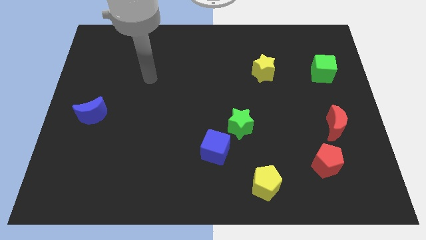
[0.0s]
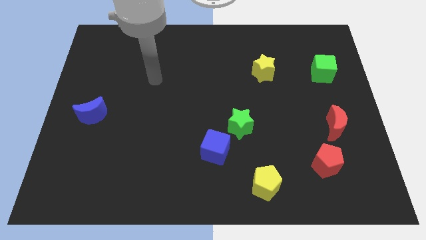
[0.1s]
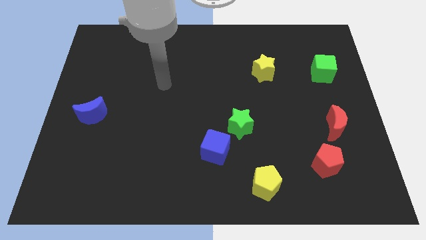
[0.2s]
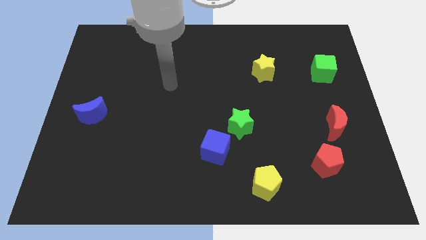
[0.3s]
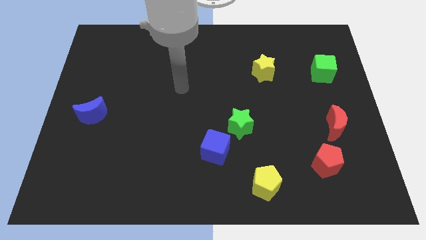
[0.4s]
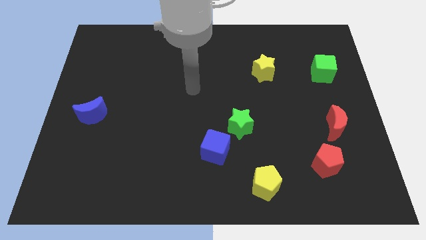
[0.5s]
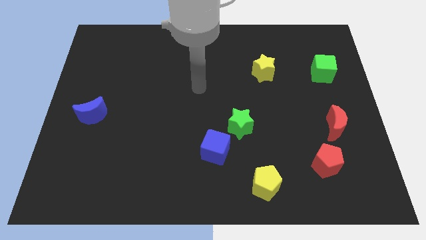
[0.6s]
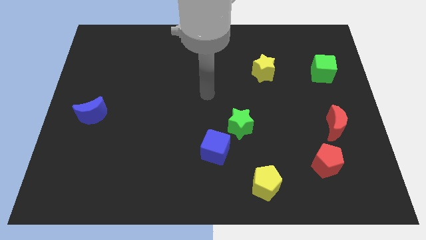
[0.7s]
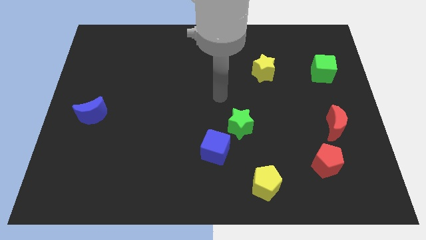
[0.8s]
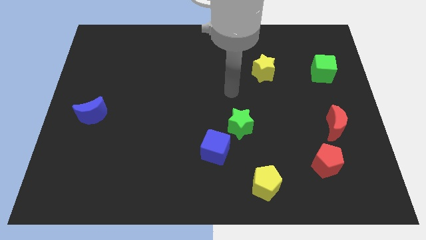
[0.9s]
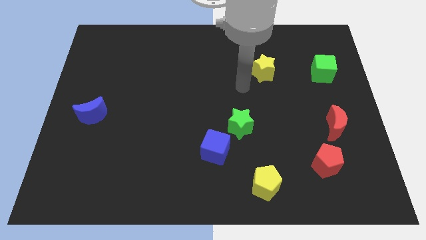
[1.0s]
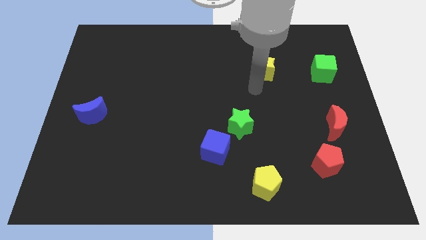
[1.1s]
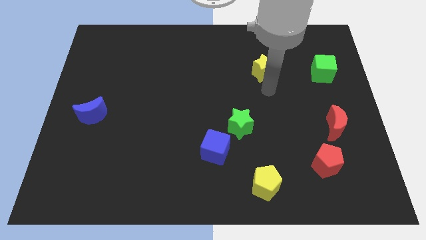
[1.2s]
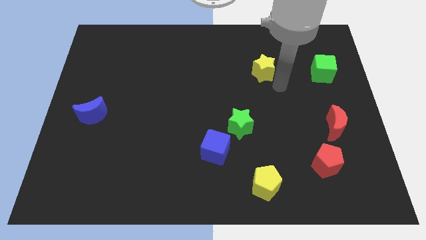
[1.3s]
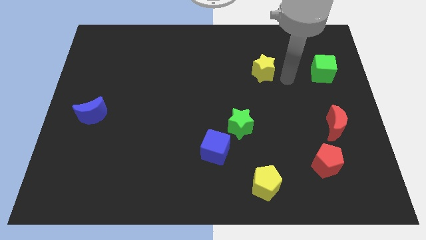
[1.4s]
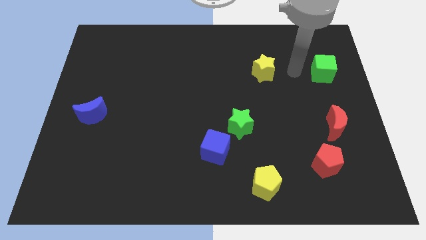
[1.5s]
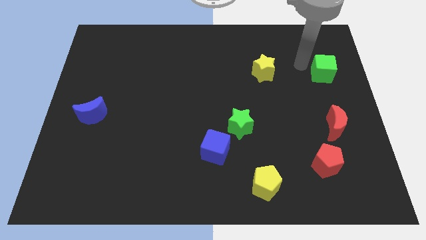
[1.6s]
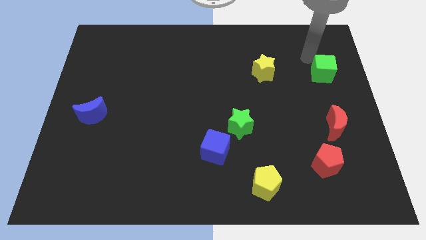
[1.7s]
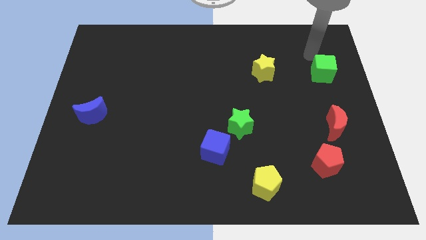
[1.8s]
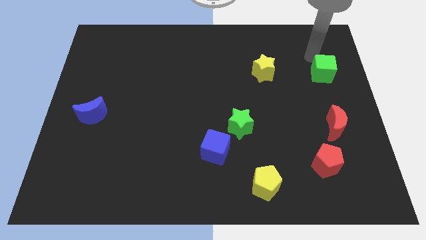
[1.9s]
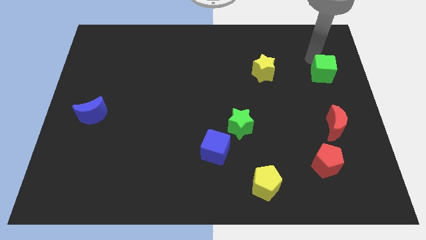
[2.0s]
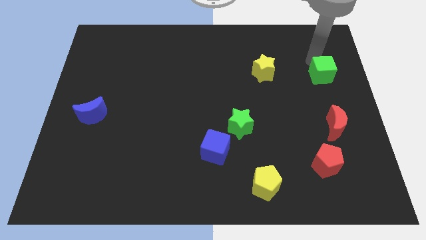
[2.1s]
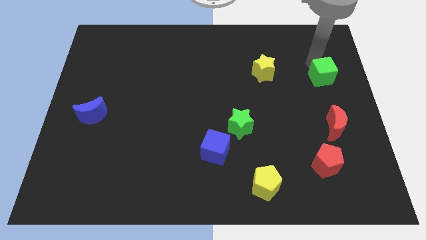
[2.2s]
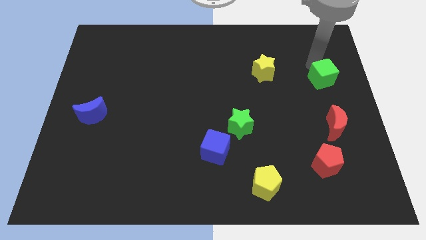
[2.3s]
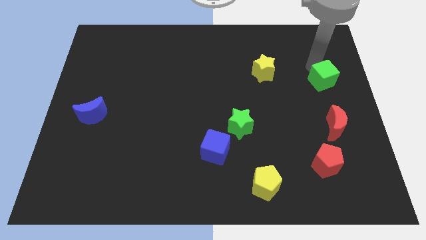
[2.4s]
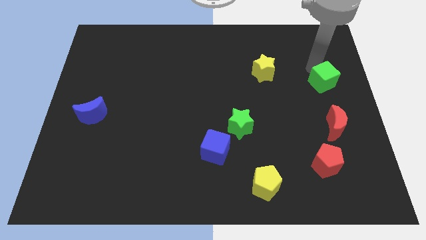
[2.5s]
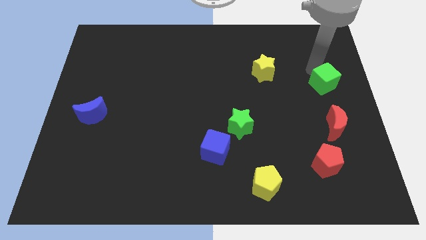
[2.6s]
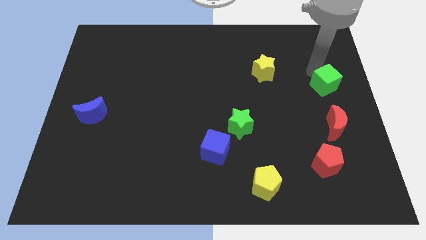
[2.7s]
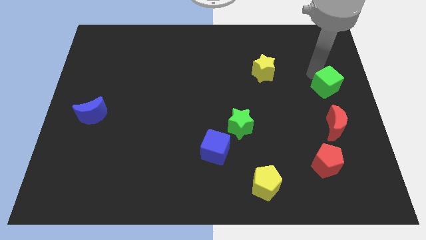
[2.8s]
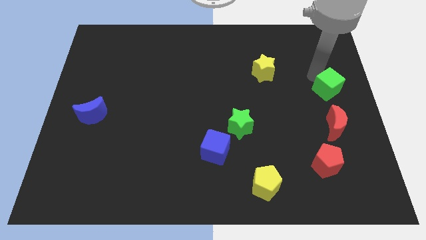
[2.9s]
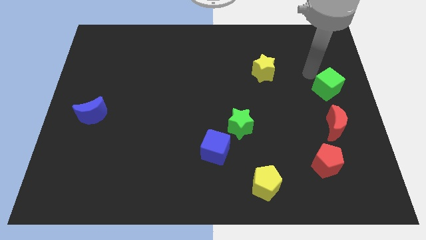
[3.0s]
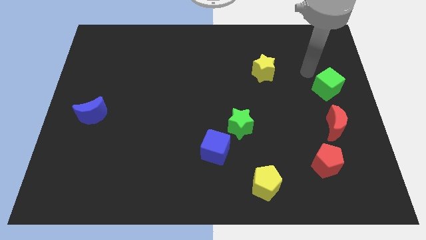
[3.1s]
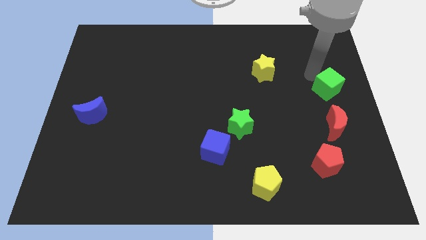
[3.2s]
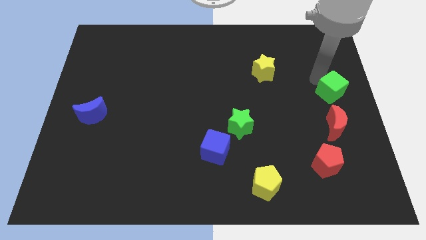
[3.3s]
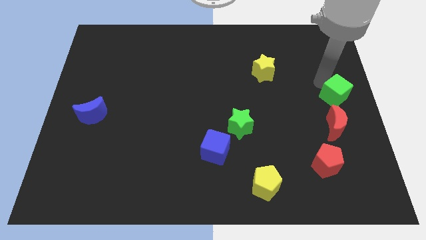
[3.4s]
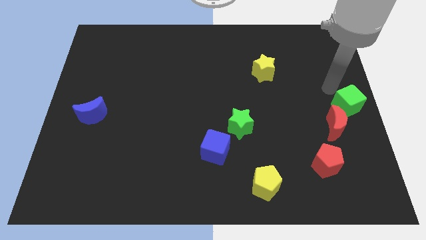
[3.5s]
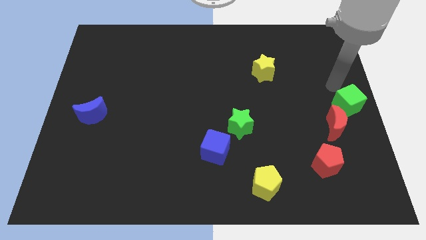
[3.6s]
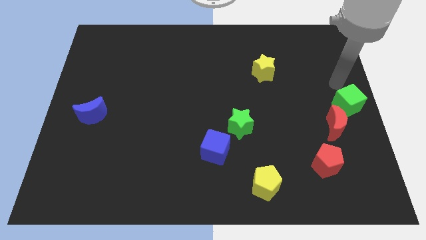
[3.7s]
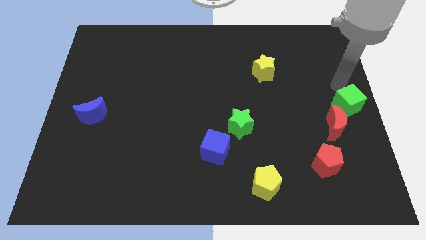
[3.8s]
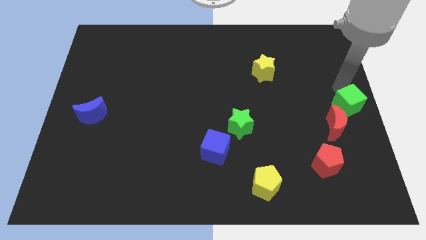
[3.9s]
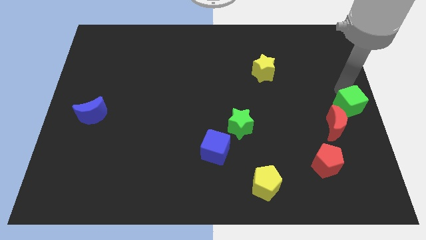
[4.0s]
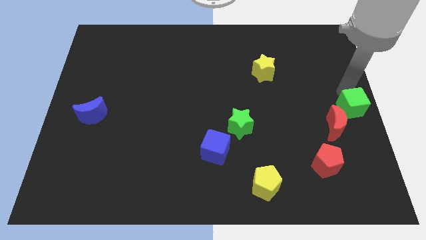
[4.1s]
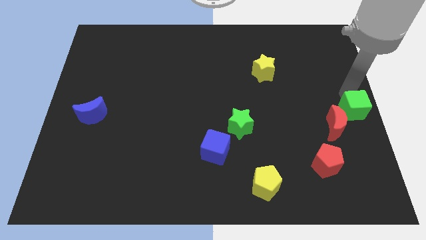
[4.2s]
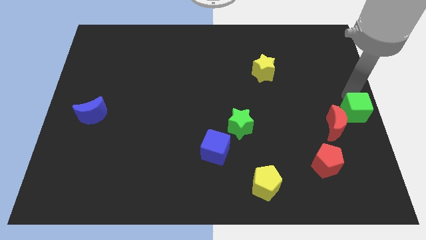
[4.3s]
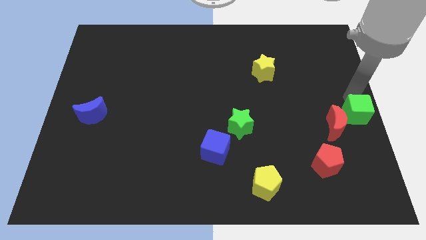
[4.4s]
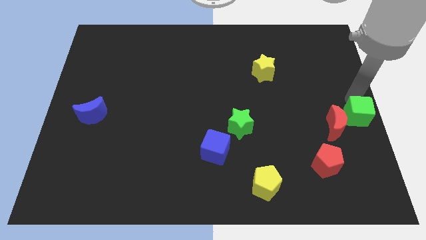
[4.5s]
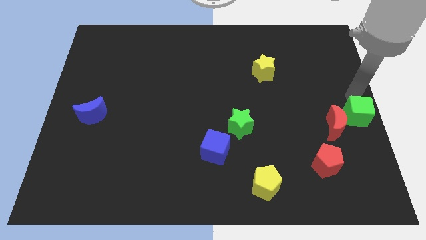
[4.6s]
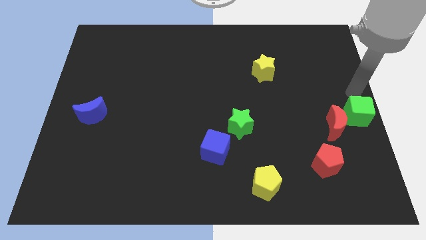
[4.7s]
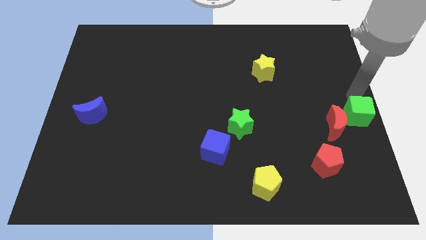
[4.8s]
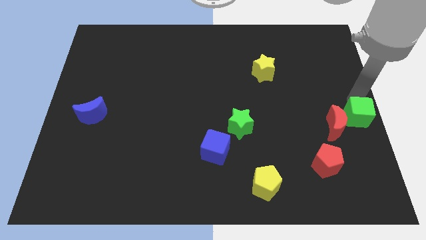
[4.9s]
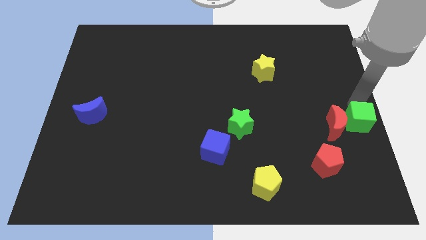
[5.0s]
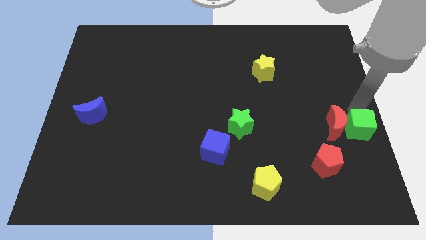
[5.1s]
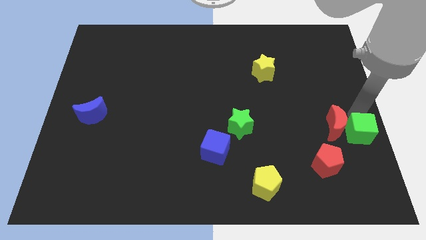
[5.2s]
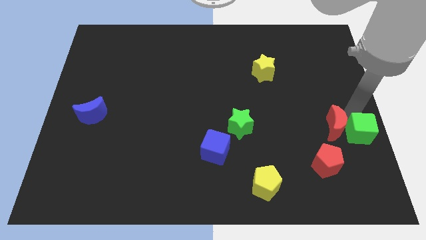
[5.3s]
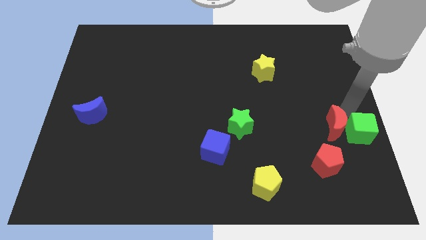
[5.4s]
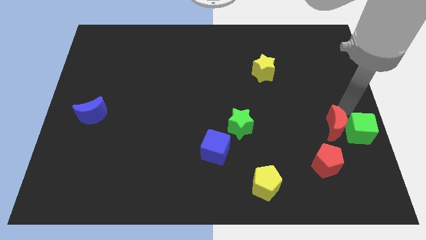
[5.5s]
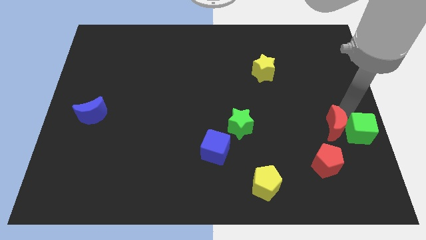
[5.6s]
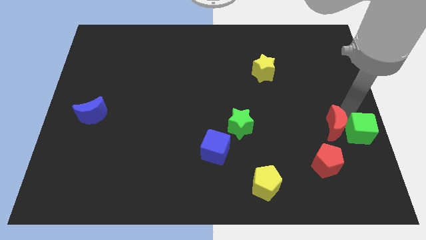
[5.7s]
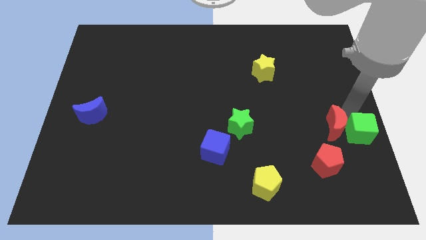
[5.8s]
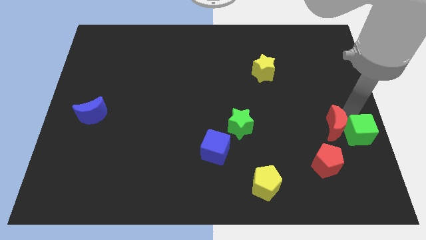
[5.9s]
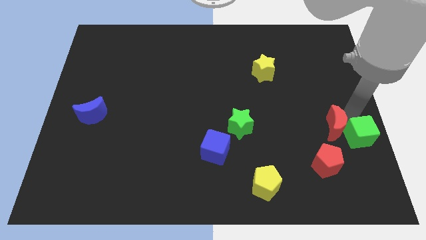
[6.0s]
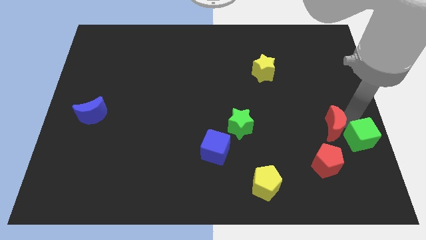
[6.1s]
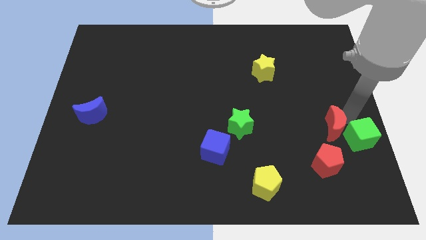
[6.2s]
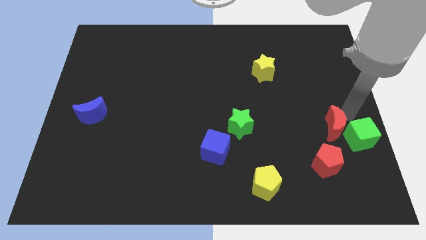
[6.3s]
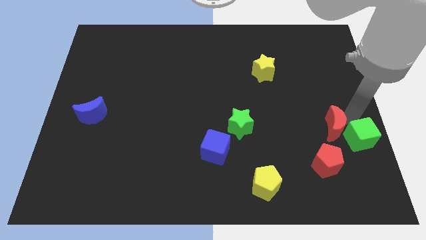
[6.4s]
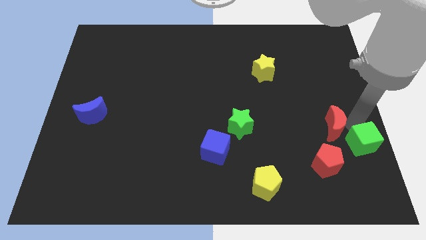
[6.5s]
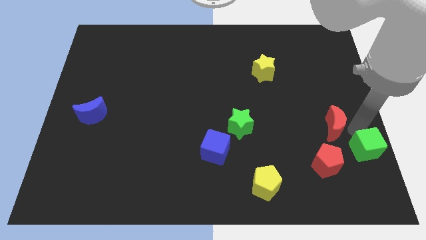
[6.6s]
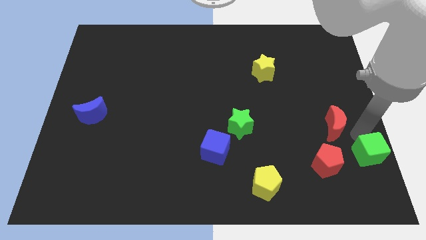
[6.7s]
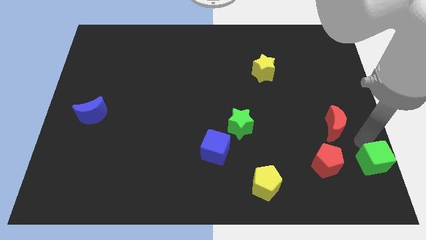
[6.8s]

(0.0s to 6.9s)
put the green cube to the bottom right corner
